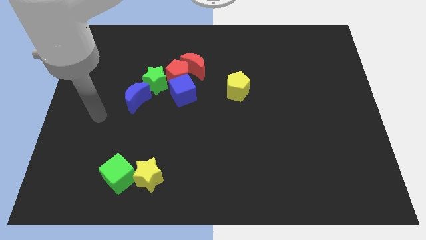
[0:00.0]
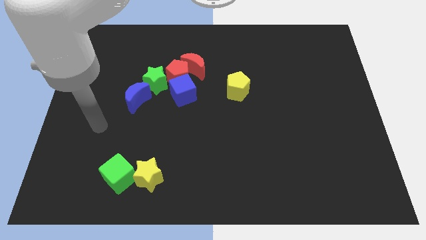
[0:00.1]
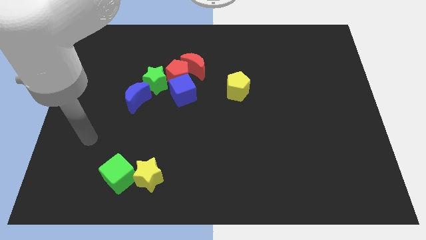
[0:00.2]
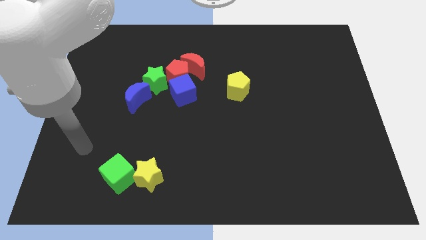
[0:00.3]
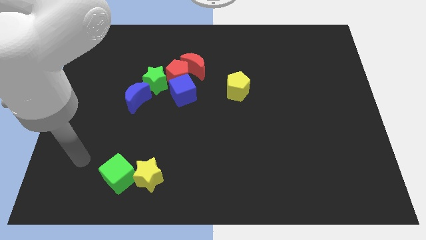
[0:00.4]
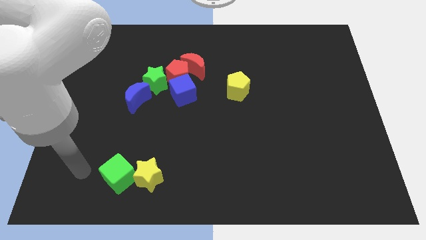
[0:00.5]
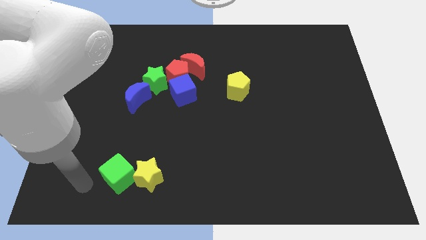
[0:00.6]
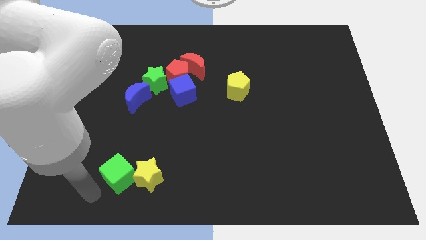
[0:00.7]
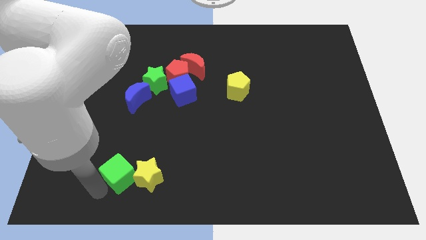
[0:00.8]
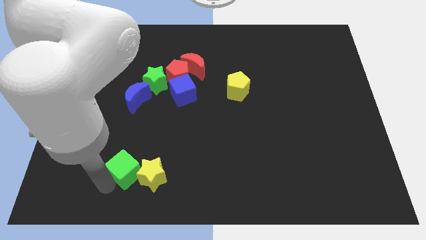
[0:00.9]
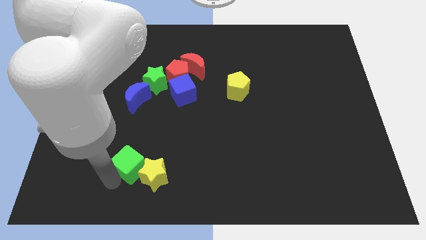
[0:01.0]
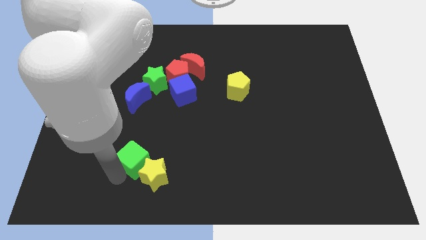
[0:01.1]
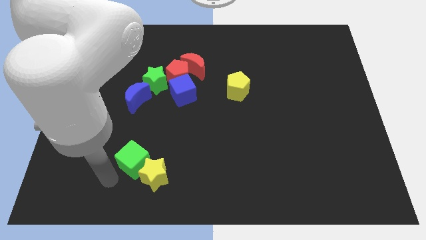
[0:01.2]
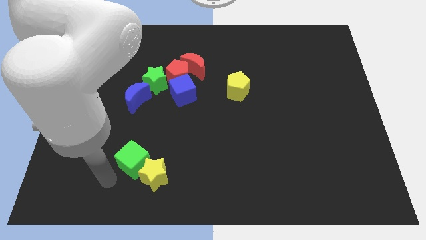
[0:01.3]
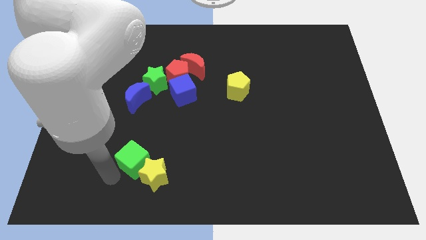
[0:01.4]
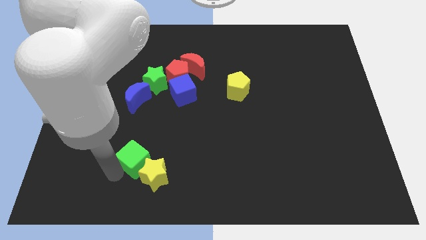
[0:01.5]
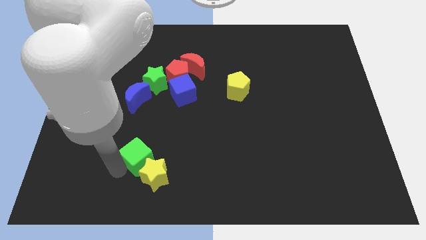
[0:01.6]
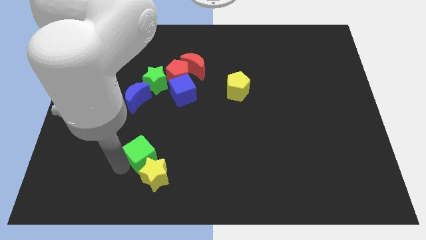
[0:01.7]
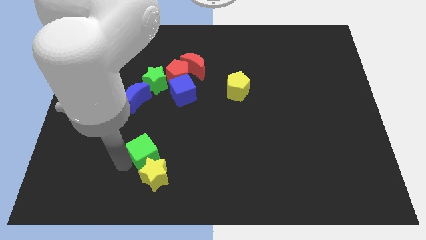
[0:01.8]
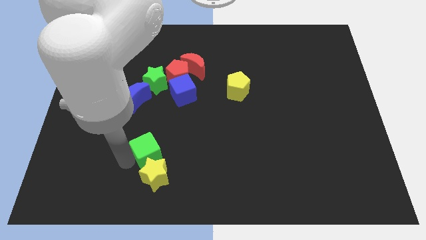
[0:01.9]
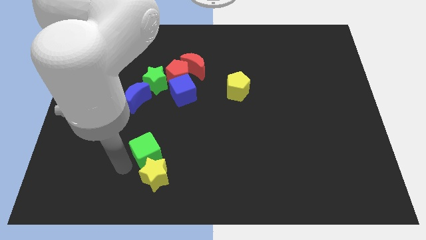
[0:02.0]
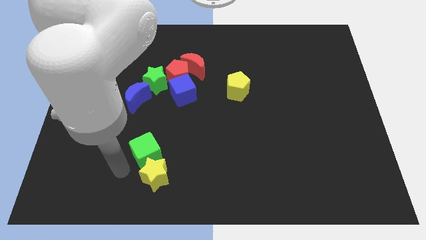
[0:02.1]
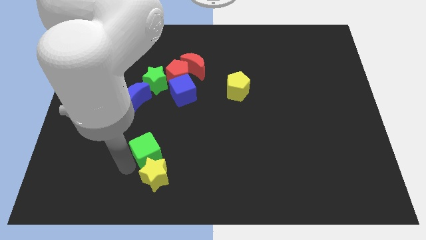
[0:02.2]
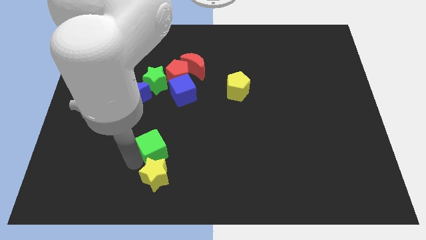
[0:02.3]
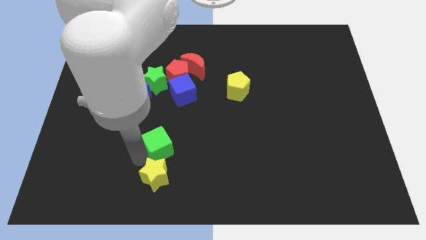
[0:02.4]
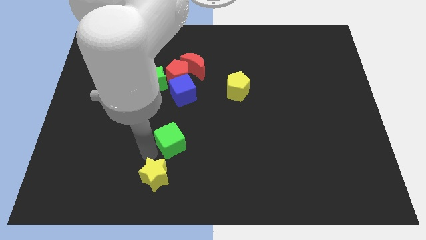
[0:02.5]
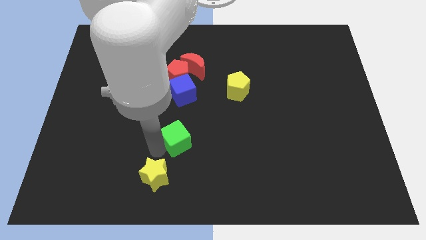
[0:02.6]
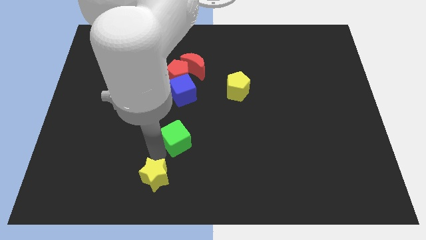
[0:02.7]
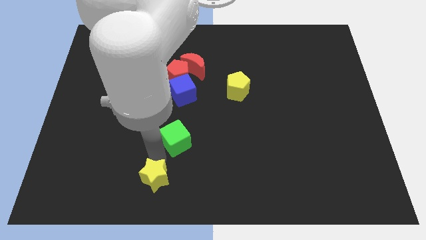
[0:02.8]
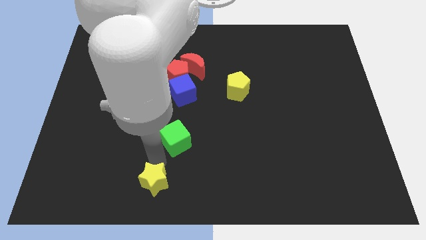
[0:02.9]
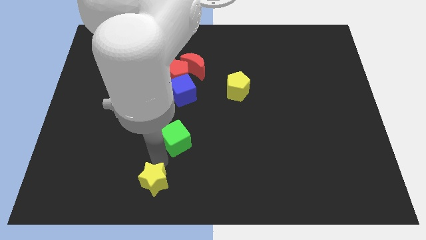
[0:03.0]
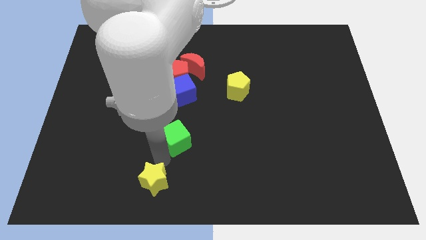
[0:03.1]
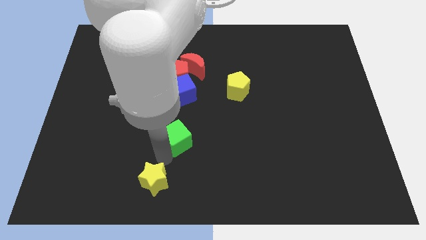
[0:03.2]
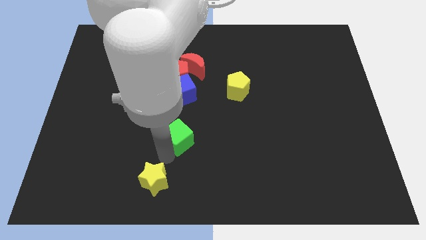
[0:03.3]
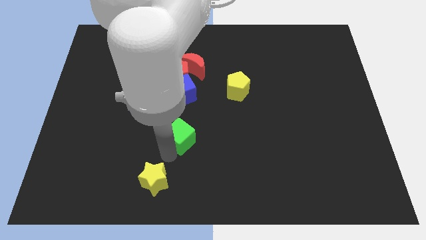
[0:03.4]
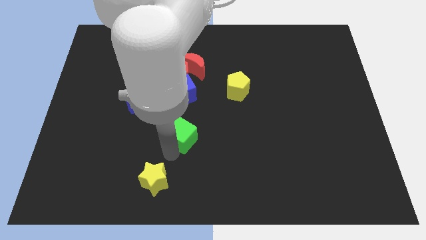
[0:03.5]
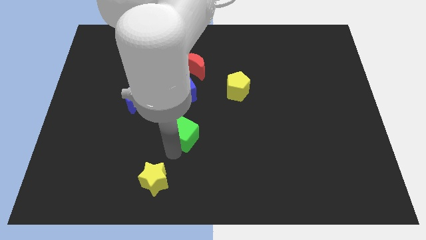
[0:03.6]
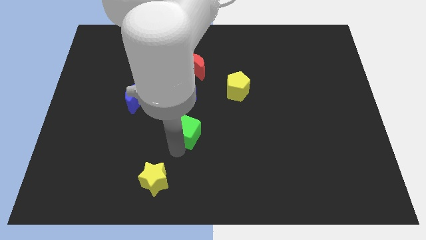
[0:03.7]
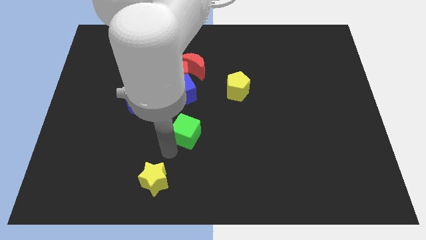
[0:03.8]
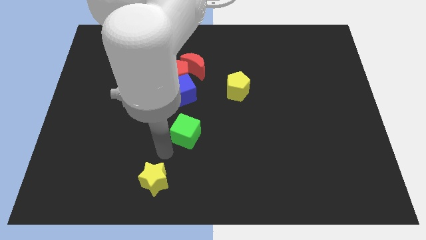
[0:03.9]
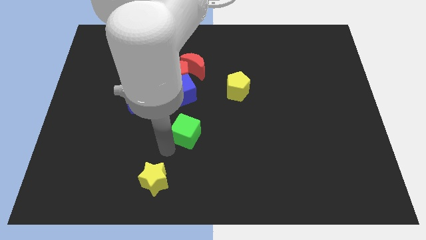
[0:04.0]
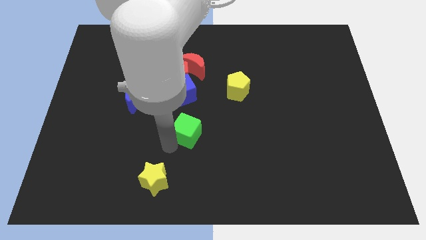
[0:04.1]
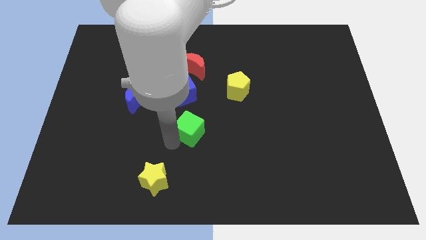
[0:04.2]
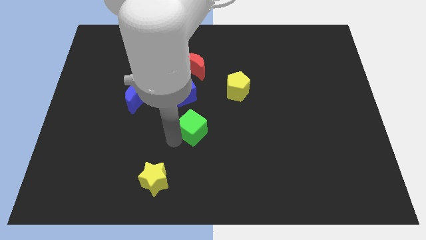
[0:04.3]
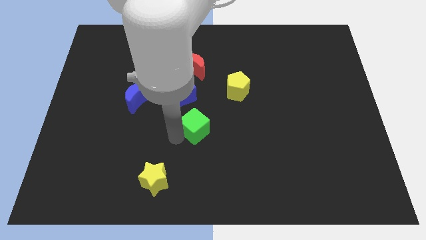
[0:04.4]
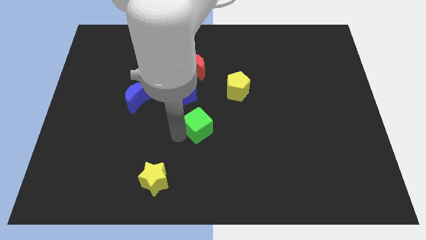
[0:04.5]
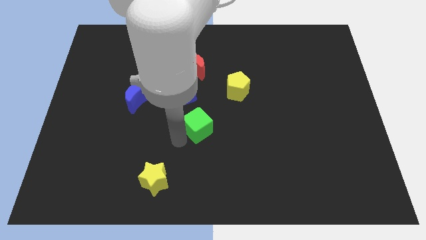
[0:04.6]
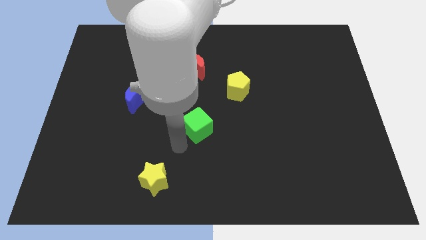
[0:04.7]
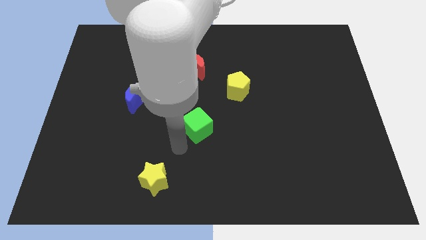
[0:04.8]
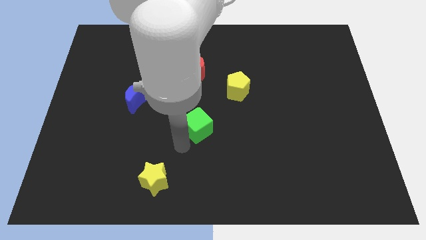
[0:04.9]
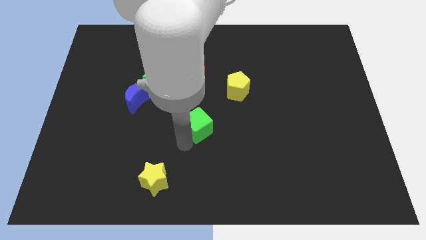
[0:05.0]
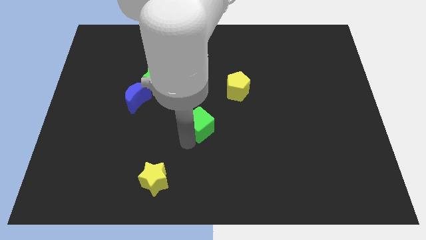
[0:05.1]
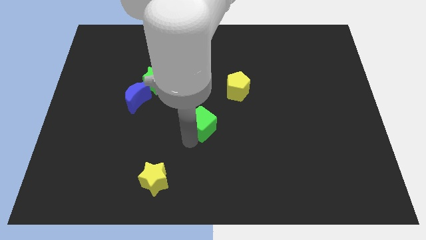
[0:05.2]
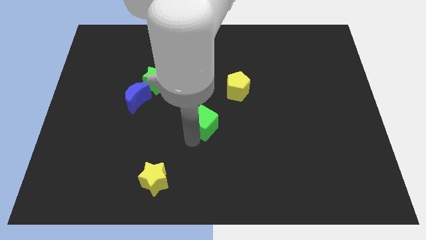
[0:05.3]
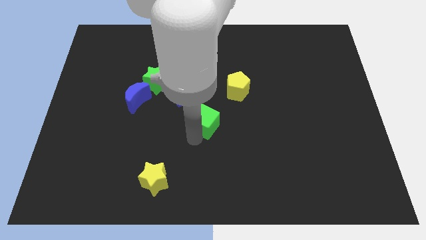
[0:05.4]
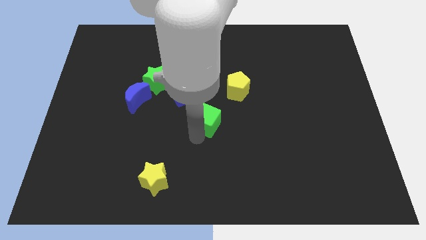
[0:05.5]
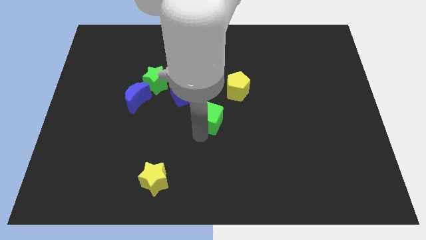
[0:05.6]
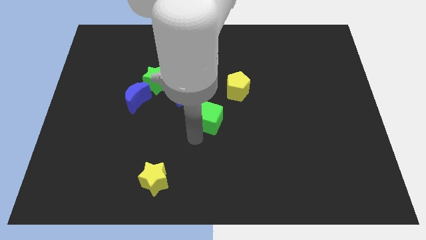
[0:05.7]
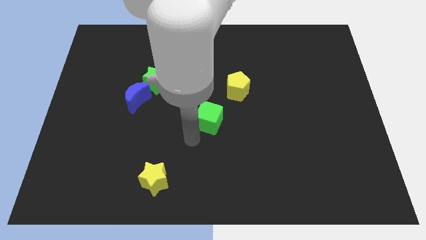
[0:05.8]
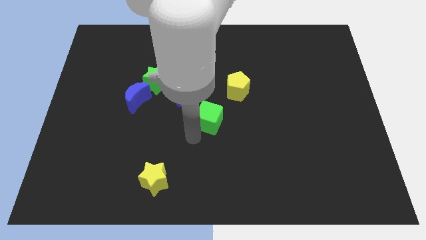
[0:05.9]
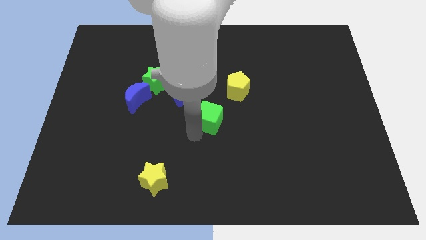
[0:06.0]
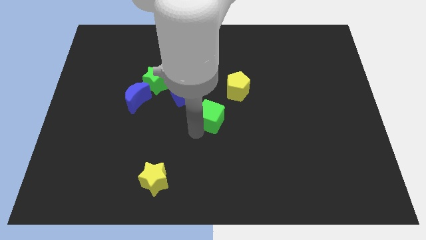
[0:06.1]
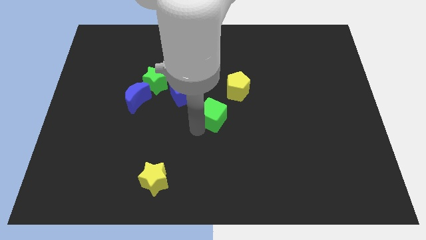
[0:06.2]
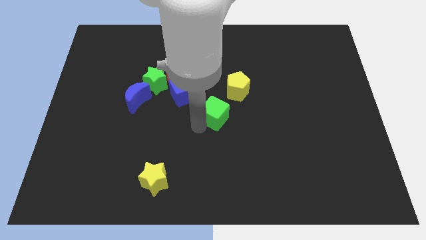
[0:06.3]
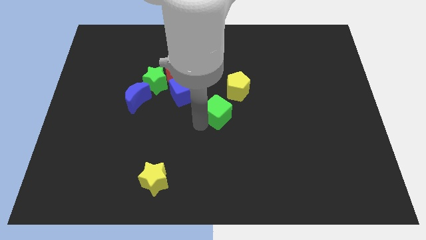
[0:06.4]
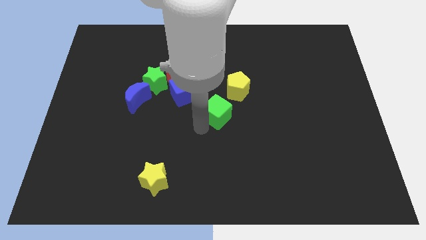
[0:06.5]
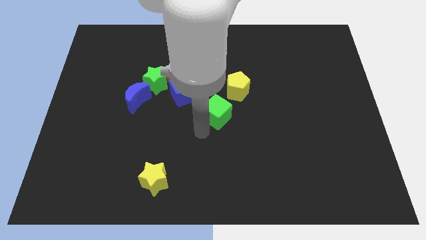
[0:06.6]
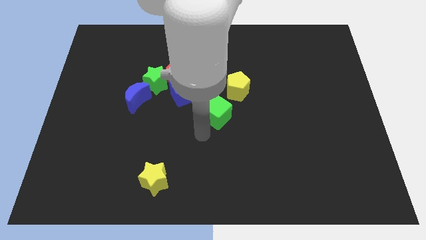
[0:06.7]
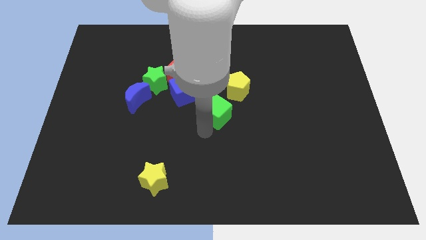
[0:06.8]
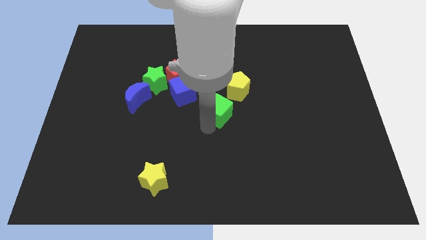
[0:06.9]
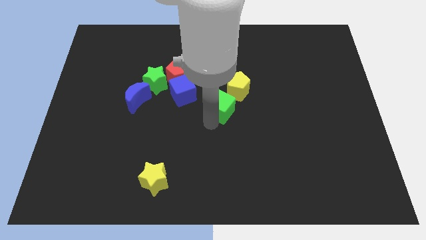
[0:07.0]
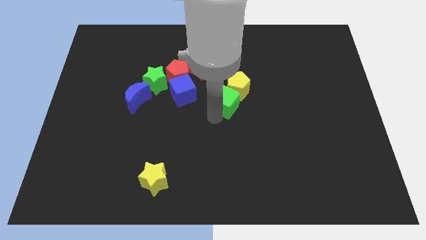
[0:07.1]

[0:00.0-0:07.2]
move the green cube close to the yellow pentagon

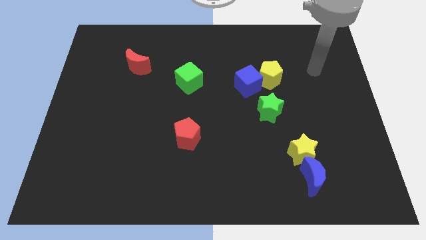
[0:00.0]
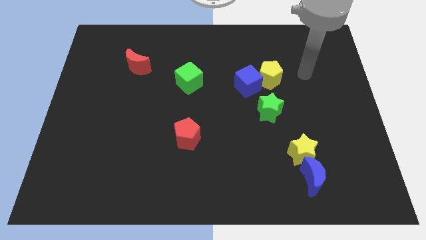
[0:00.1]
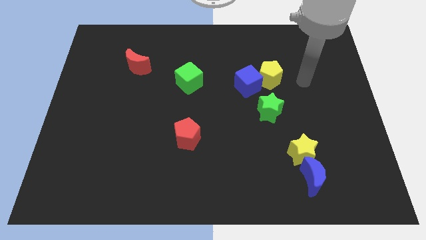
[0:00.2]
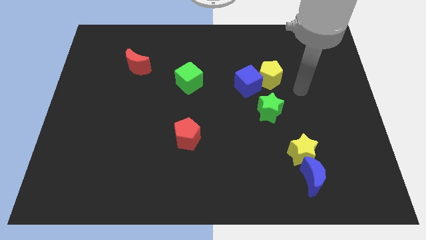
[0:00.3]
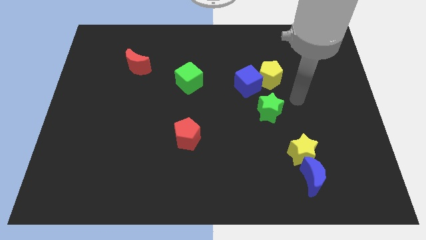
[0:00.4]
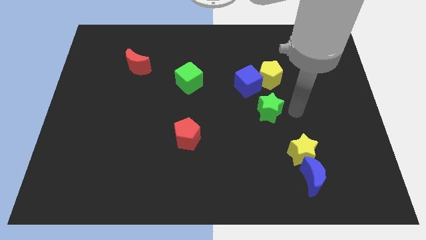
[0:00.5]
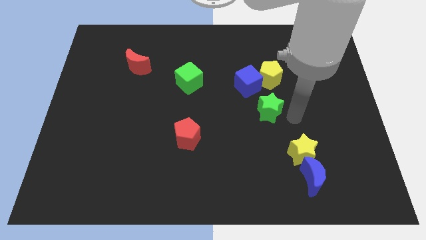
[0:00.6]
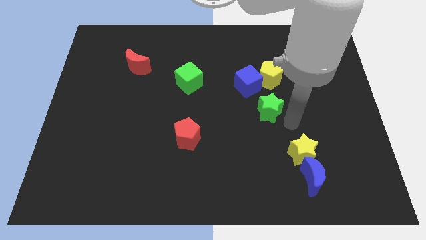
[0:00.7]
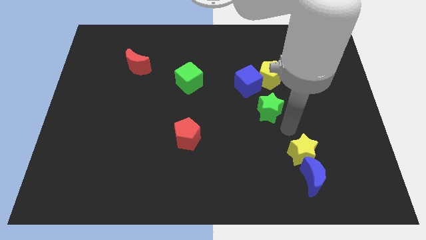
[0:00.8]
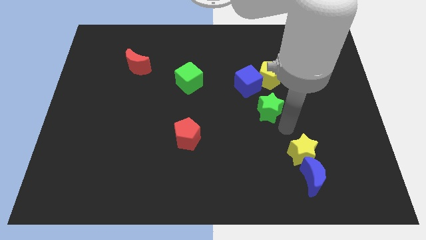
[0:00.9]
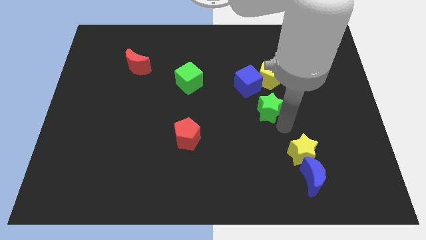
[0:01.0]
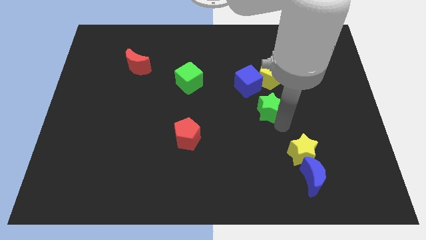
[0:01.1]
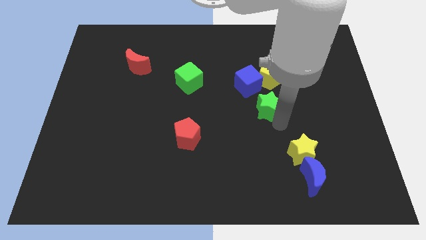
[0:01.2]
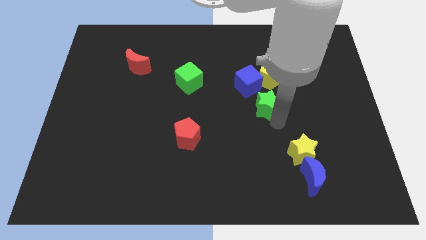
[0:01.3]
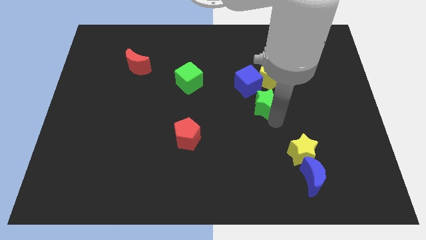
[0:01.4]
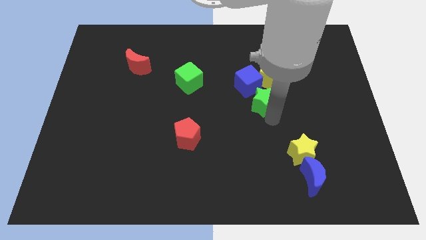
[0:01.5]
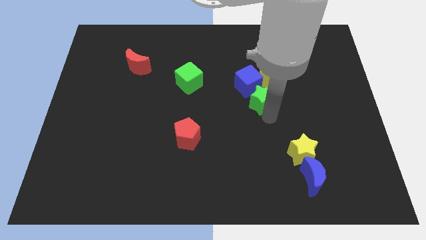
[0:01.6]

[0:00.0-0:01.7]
move the green star towards the blue cube
